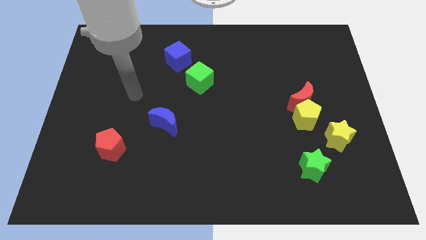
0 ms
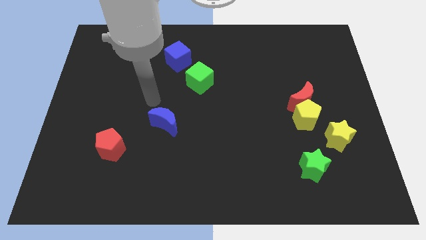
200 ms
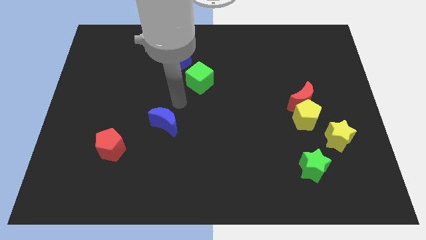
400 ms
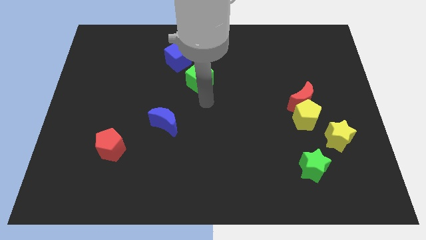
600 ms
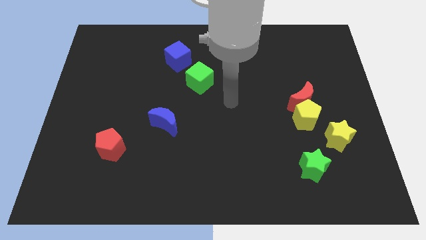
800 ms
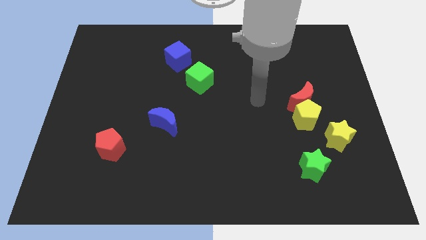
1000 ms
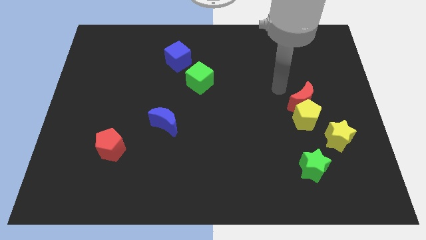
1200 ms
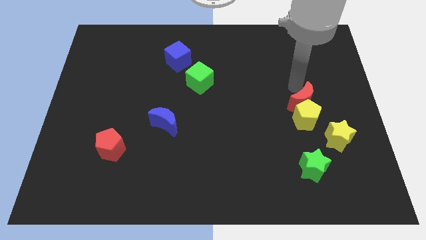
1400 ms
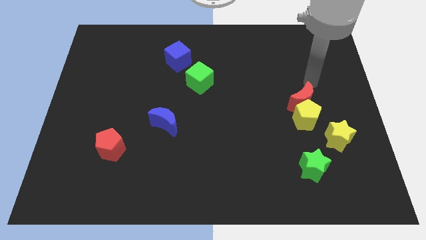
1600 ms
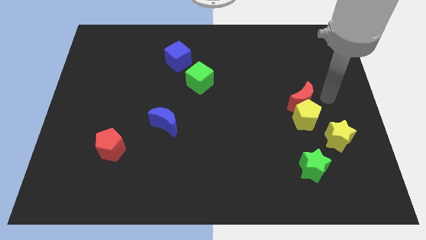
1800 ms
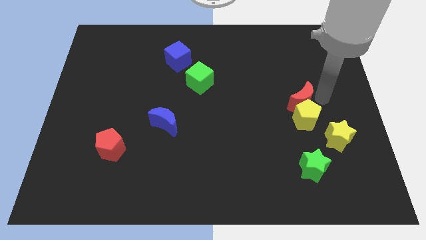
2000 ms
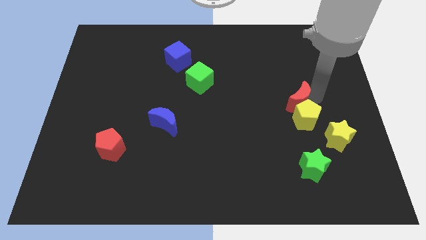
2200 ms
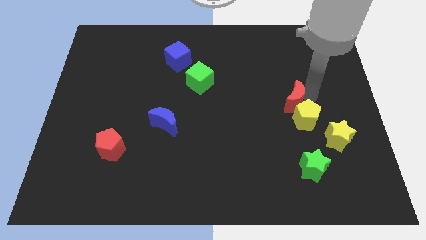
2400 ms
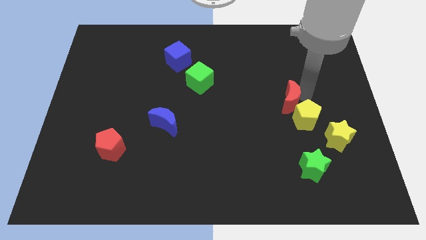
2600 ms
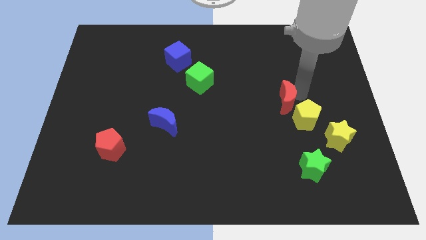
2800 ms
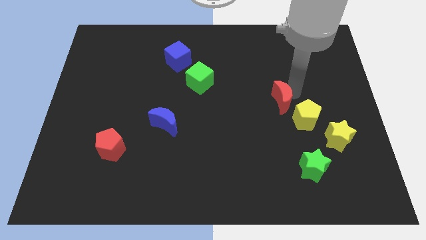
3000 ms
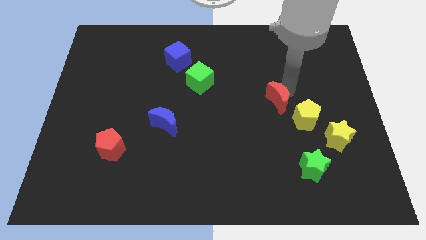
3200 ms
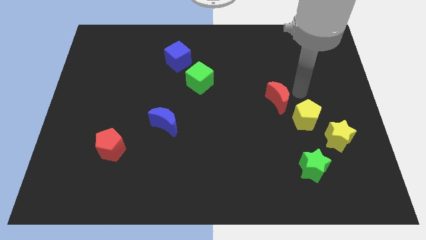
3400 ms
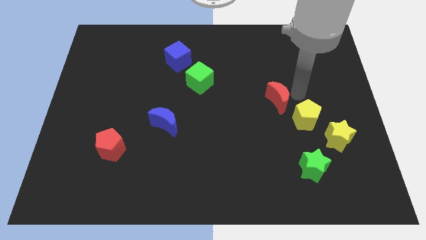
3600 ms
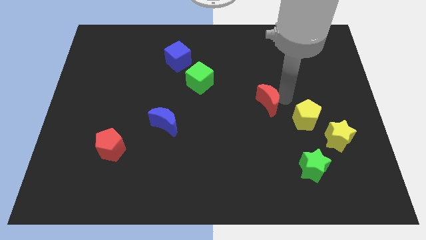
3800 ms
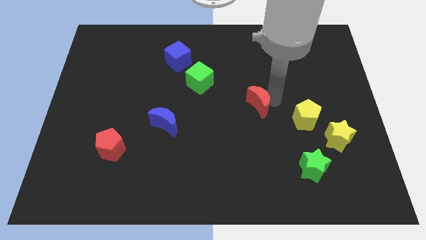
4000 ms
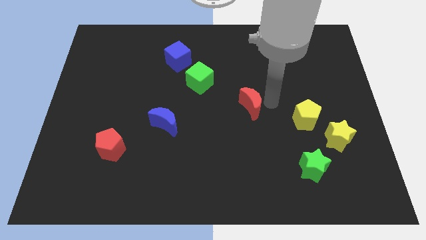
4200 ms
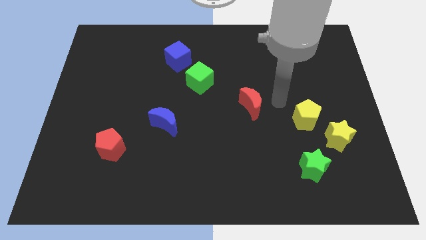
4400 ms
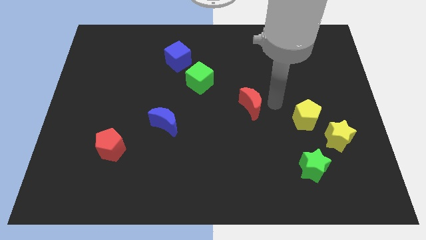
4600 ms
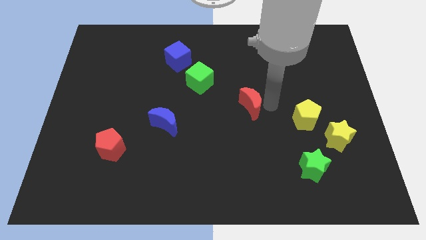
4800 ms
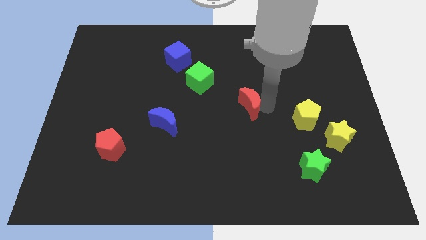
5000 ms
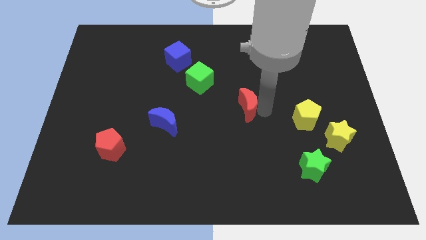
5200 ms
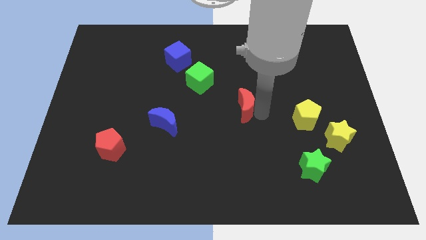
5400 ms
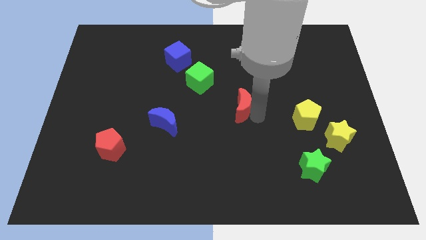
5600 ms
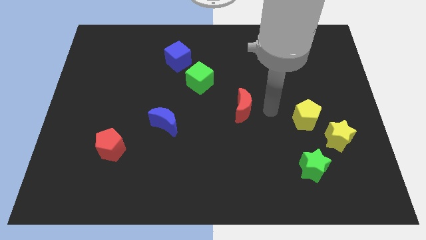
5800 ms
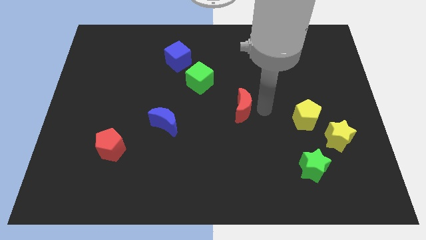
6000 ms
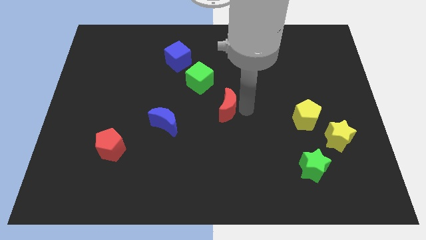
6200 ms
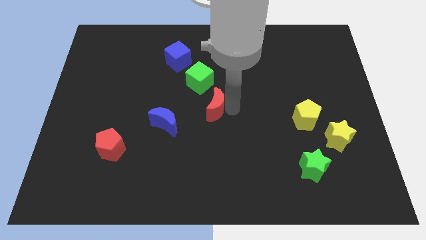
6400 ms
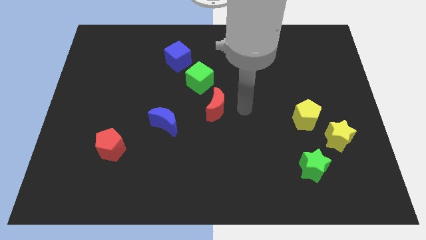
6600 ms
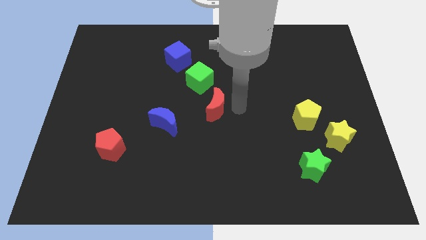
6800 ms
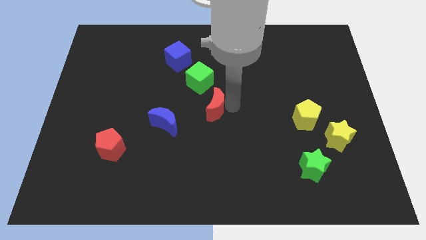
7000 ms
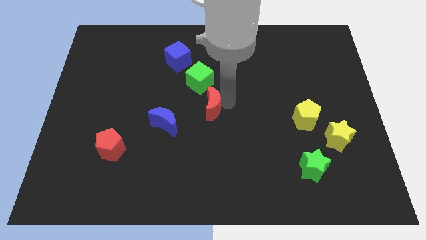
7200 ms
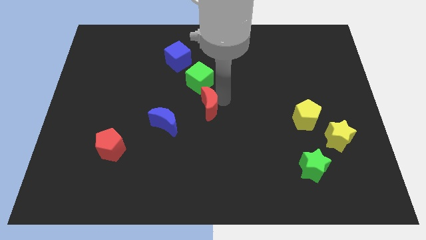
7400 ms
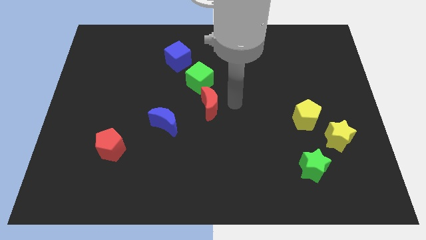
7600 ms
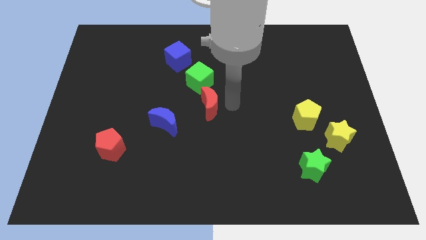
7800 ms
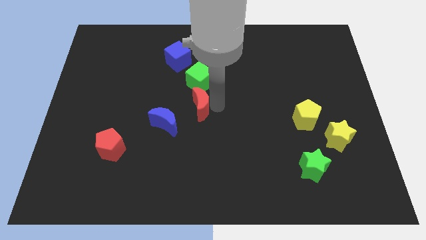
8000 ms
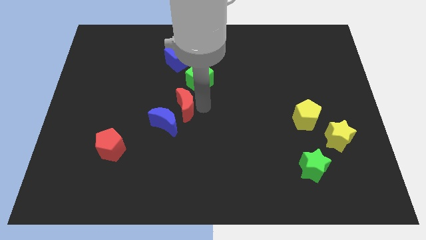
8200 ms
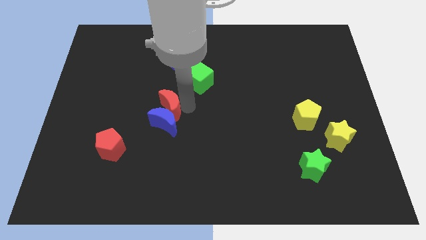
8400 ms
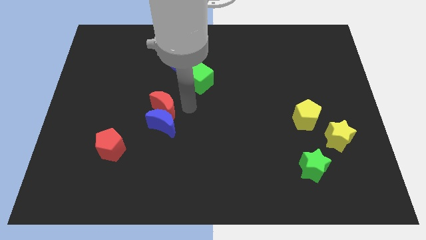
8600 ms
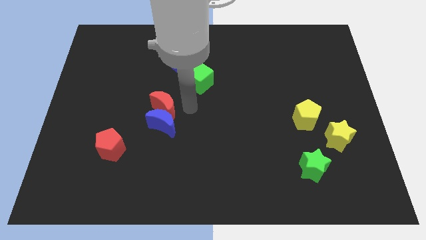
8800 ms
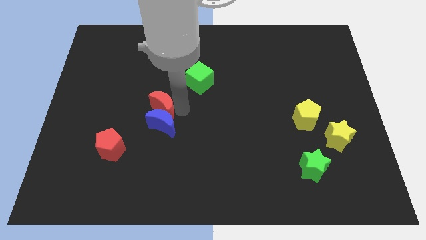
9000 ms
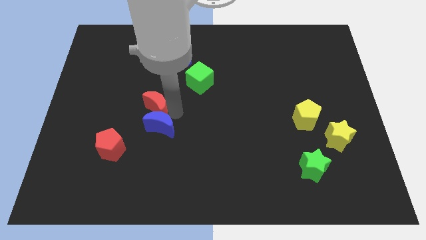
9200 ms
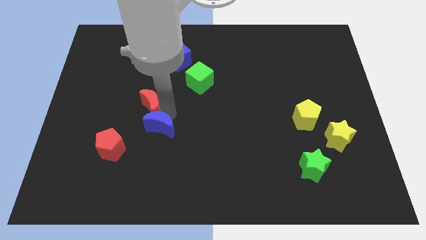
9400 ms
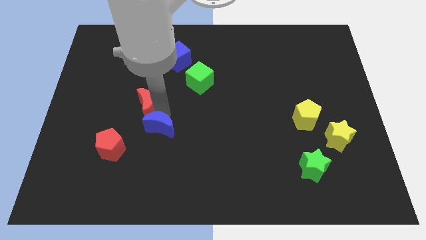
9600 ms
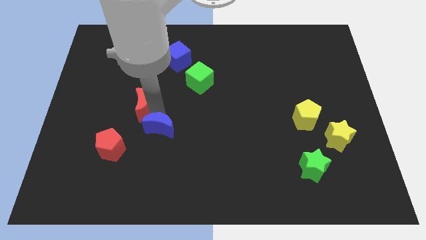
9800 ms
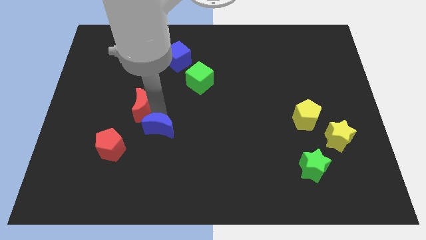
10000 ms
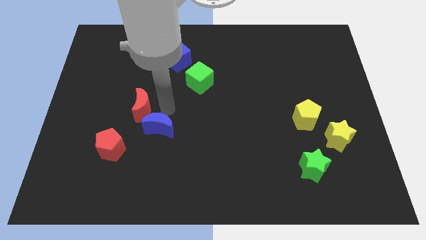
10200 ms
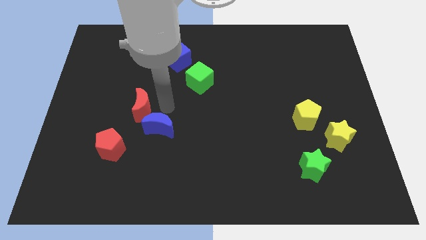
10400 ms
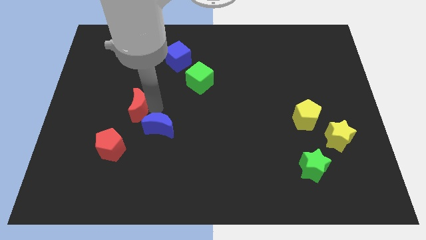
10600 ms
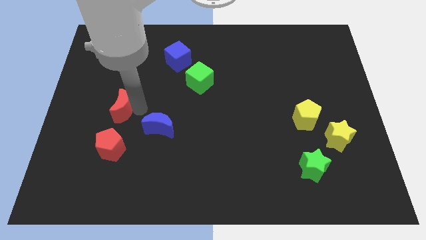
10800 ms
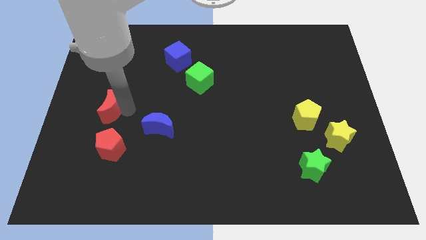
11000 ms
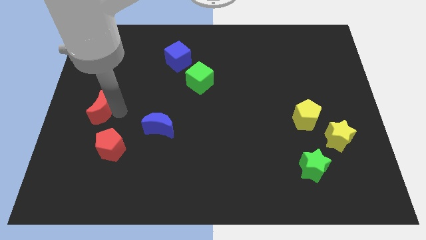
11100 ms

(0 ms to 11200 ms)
move the red moon to the center left
